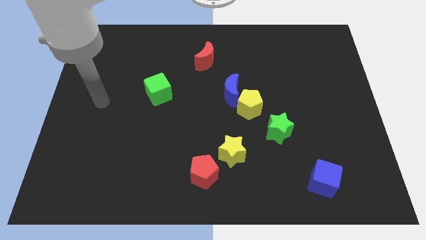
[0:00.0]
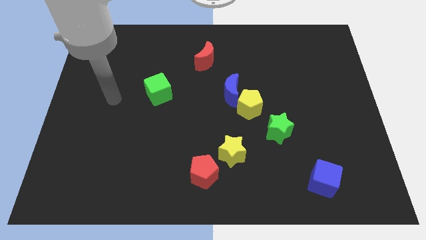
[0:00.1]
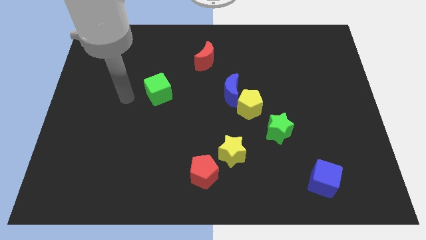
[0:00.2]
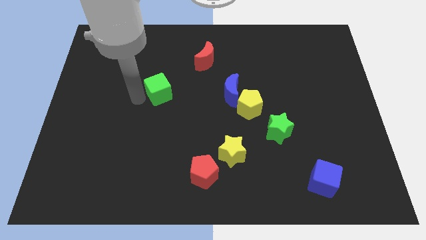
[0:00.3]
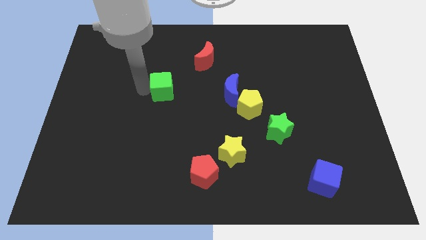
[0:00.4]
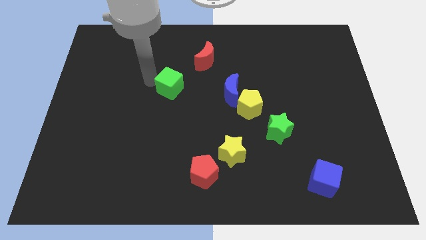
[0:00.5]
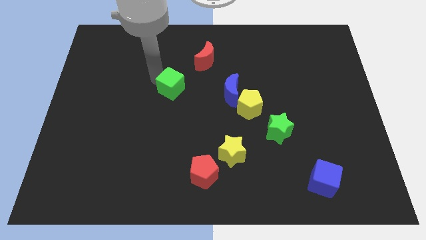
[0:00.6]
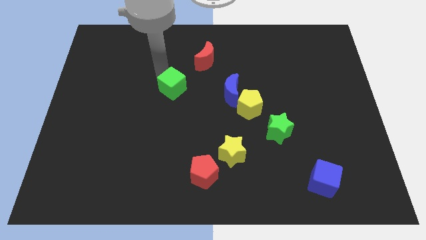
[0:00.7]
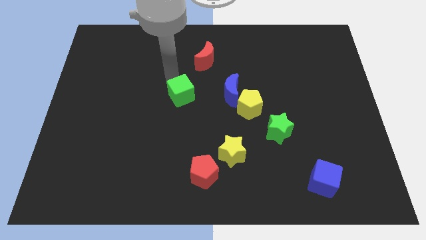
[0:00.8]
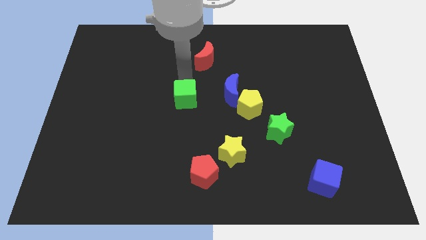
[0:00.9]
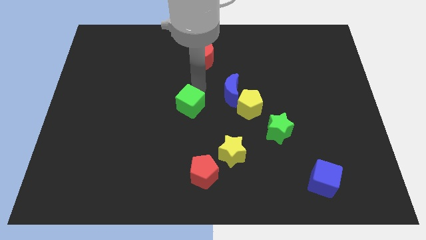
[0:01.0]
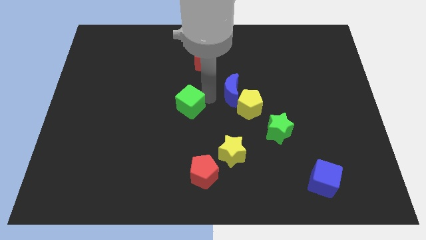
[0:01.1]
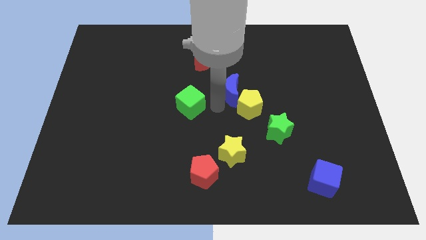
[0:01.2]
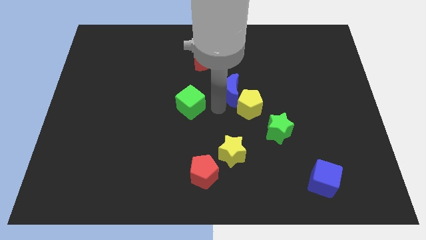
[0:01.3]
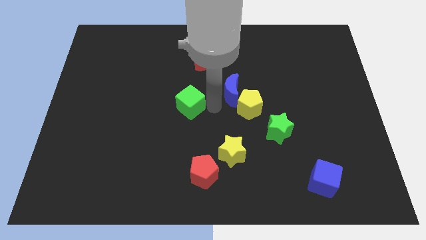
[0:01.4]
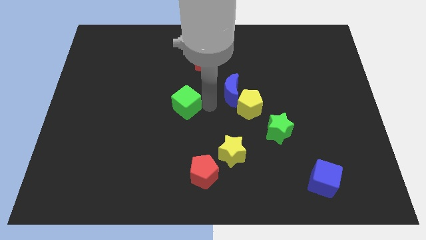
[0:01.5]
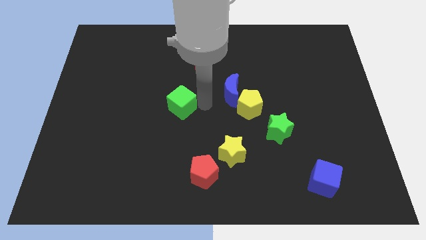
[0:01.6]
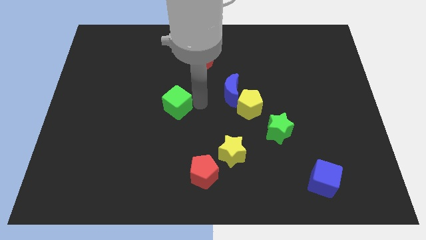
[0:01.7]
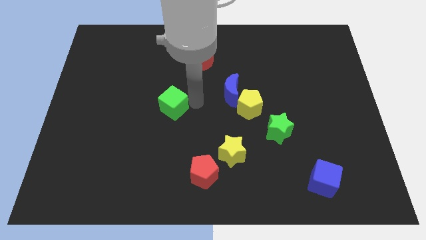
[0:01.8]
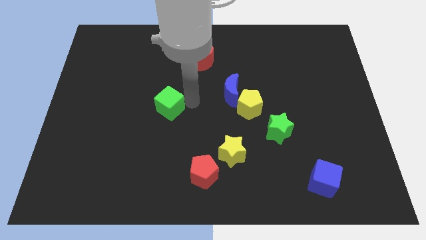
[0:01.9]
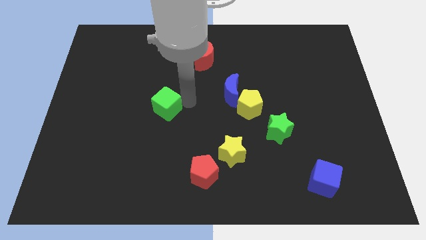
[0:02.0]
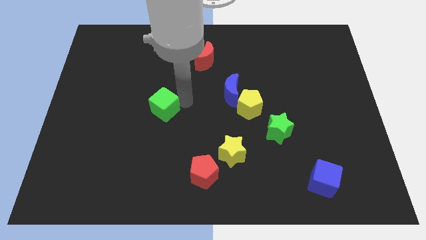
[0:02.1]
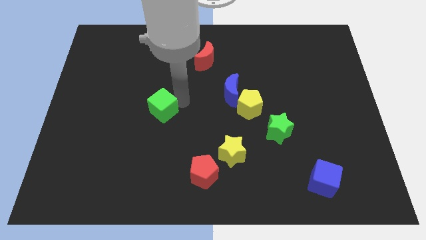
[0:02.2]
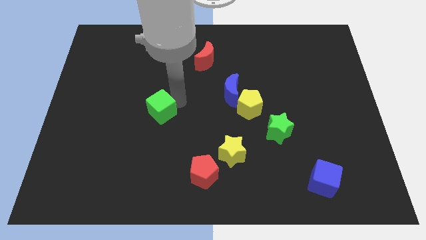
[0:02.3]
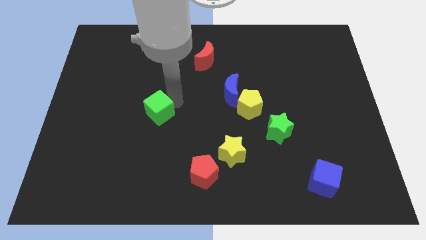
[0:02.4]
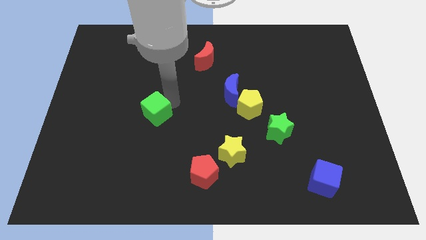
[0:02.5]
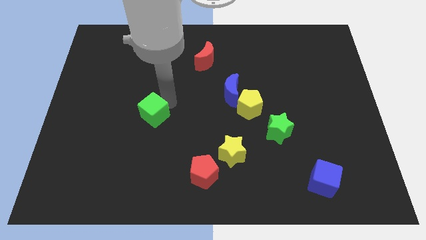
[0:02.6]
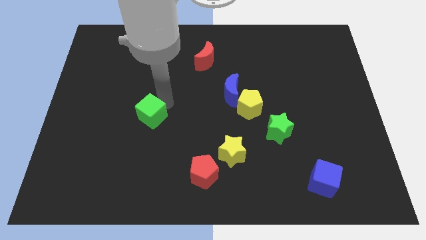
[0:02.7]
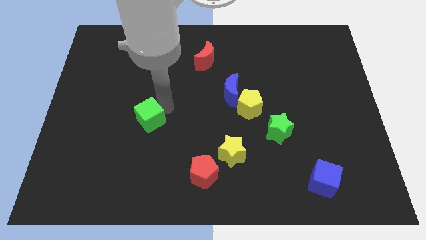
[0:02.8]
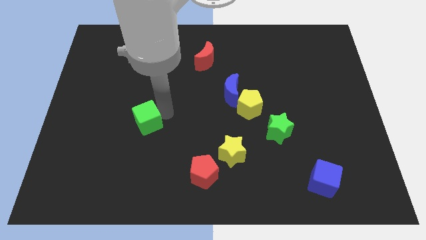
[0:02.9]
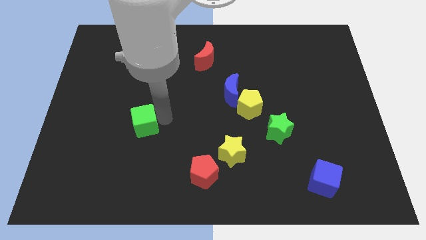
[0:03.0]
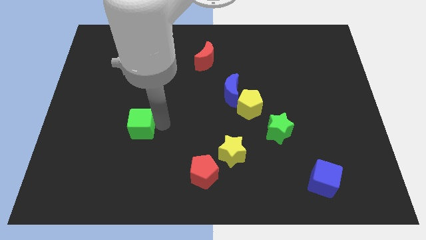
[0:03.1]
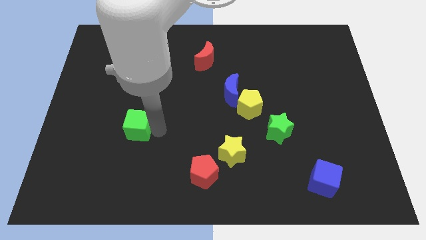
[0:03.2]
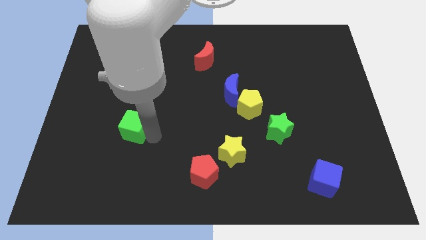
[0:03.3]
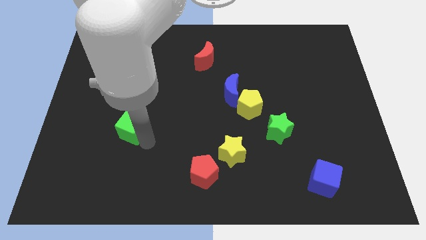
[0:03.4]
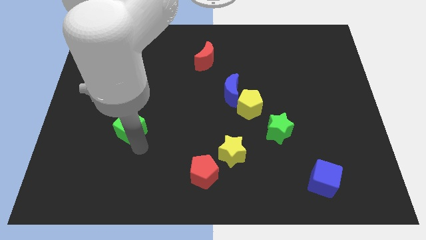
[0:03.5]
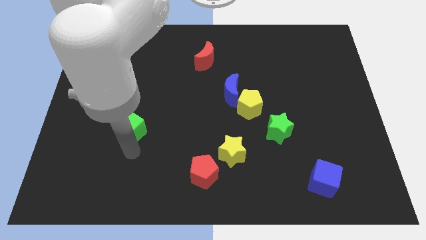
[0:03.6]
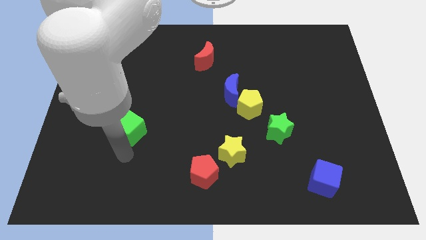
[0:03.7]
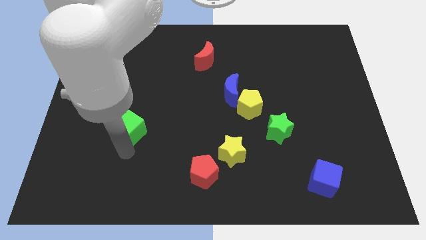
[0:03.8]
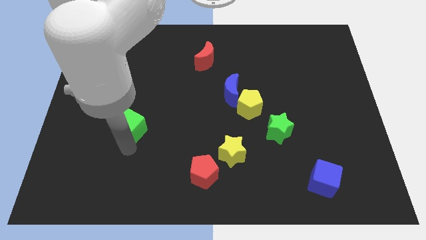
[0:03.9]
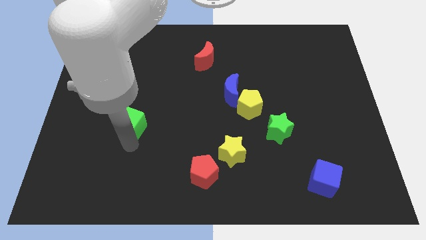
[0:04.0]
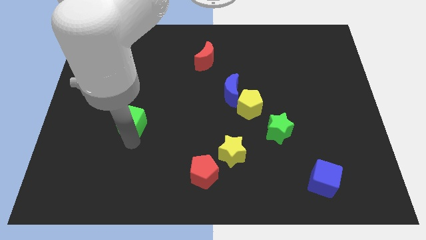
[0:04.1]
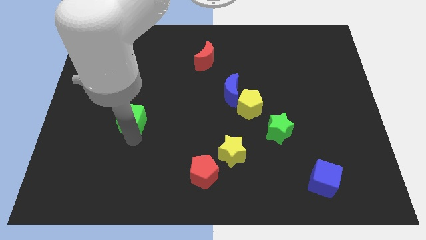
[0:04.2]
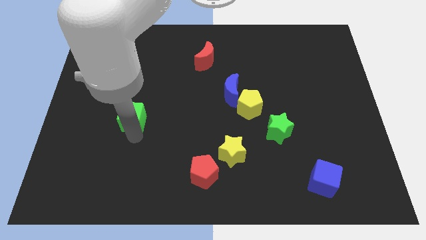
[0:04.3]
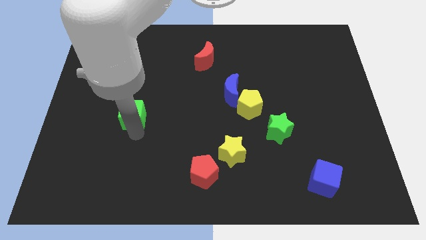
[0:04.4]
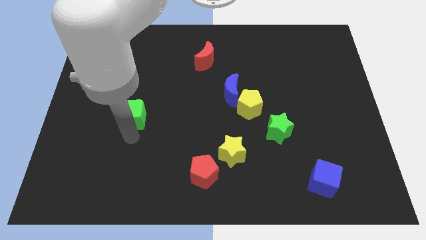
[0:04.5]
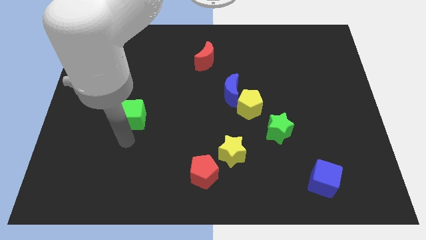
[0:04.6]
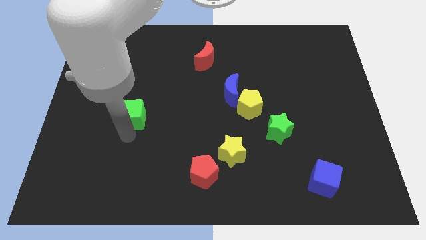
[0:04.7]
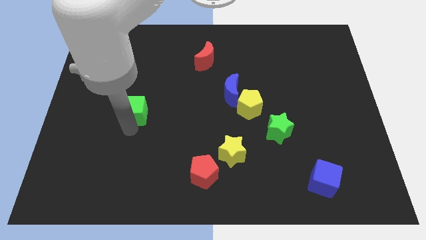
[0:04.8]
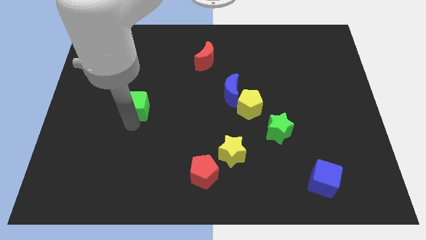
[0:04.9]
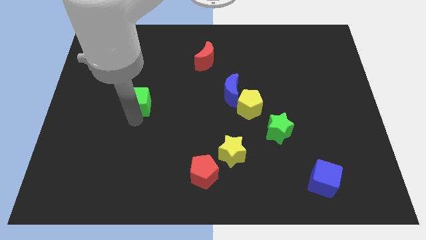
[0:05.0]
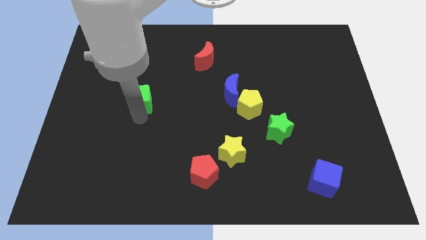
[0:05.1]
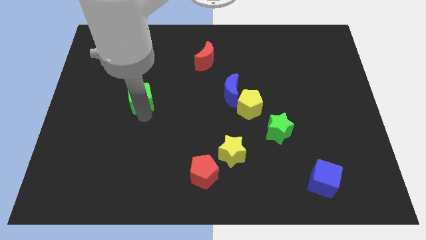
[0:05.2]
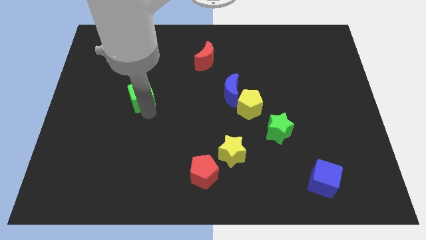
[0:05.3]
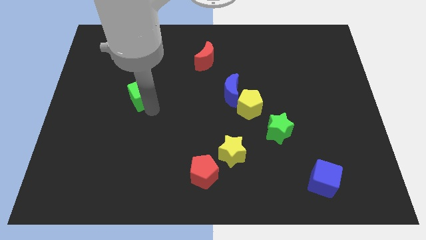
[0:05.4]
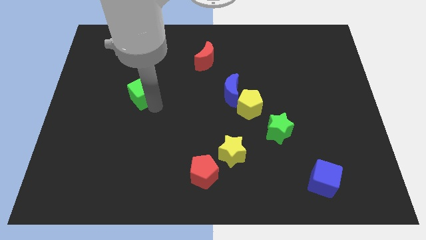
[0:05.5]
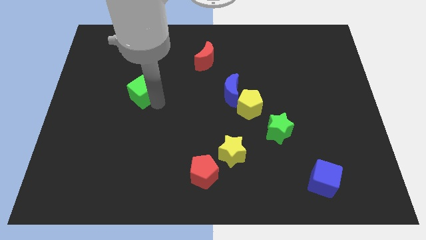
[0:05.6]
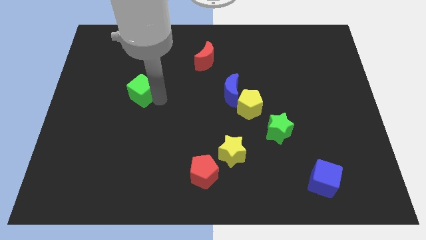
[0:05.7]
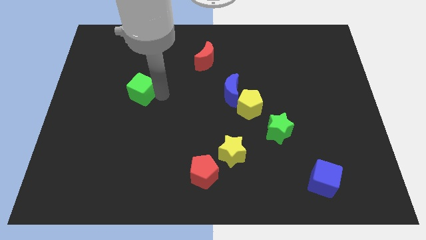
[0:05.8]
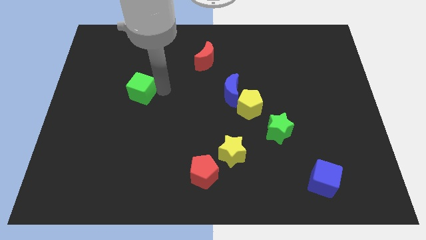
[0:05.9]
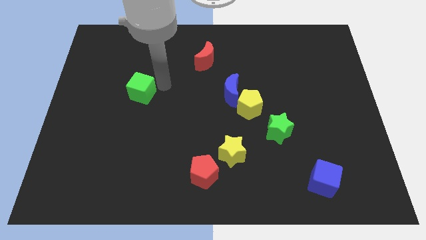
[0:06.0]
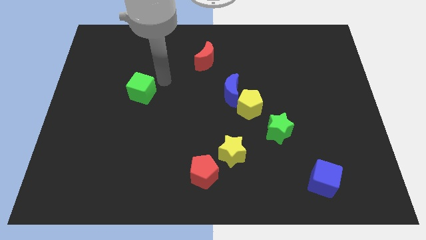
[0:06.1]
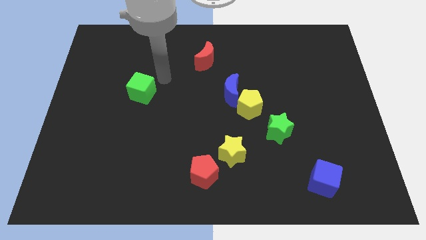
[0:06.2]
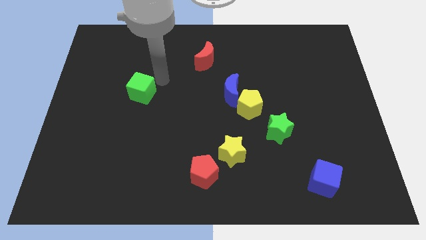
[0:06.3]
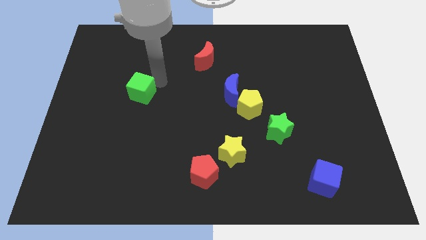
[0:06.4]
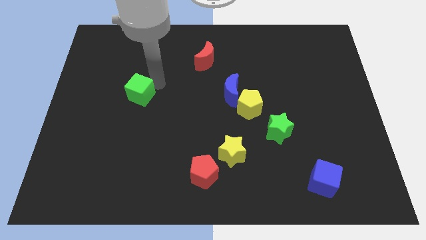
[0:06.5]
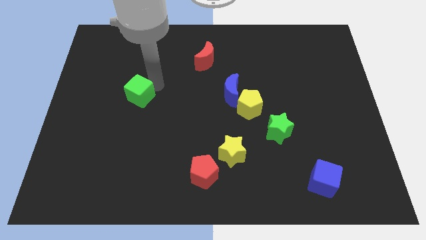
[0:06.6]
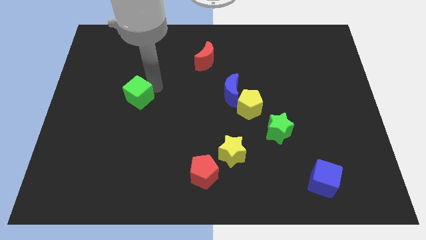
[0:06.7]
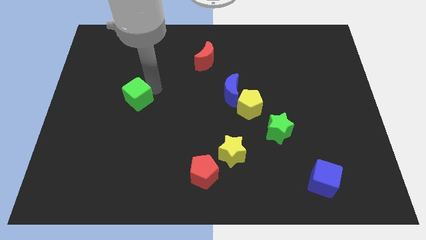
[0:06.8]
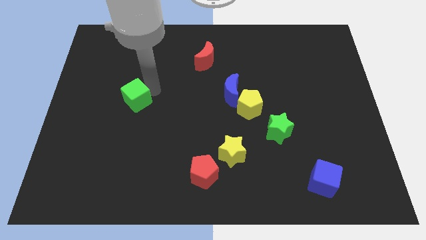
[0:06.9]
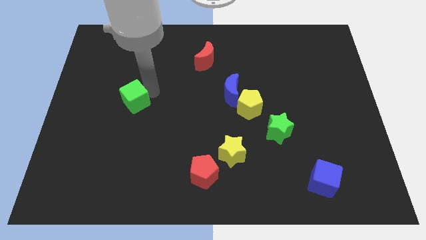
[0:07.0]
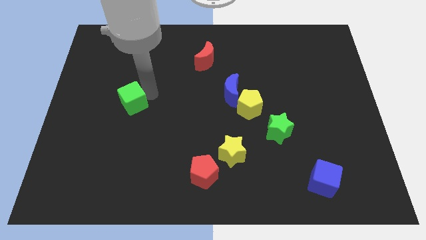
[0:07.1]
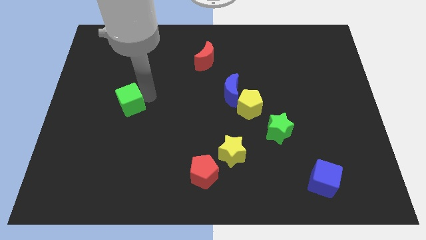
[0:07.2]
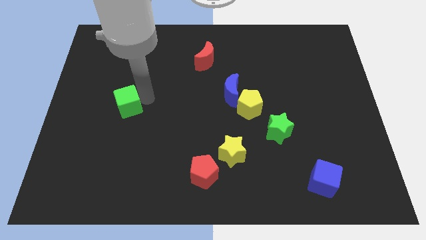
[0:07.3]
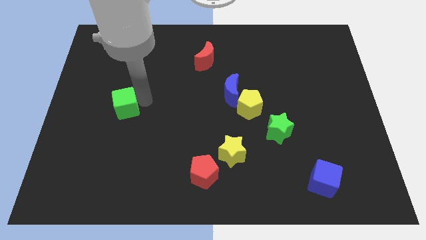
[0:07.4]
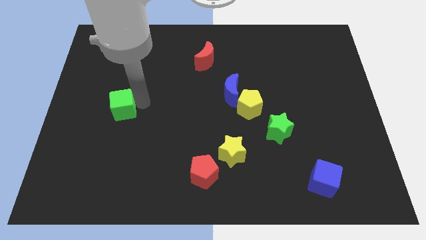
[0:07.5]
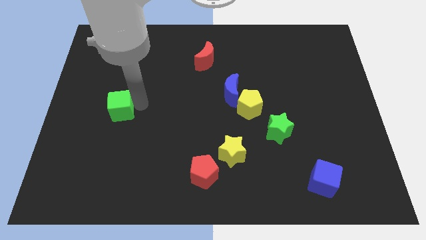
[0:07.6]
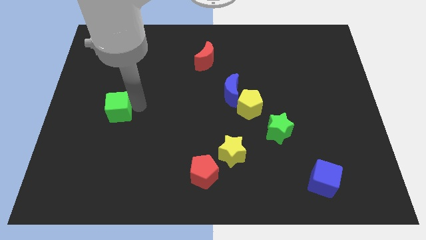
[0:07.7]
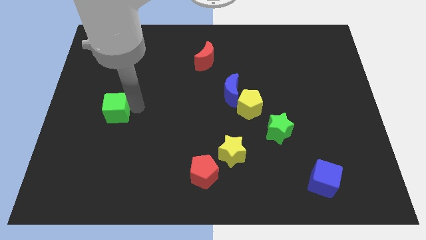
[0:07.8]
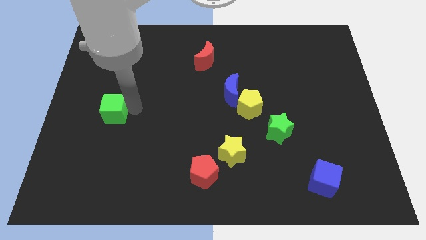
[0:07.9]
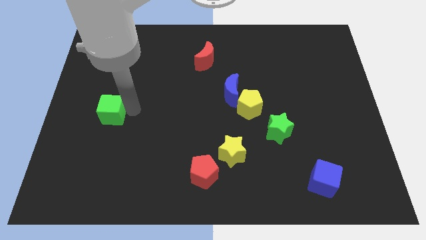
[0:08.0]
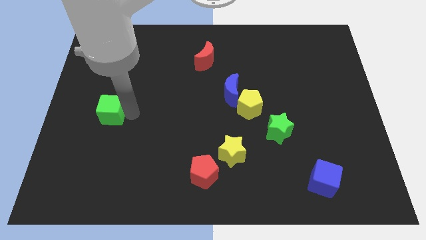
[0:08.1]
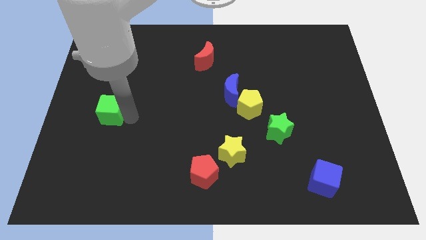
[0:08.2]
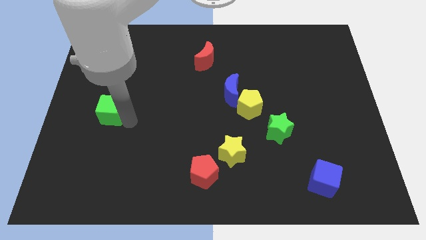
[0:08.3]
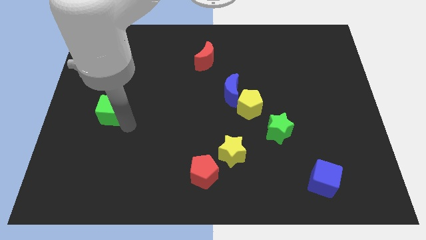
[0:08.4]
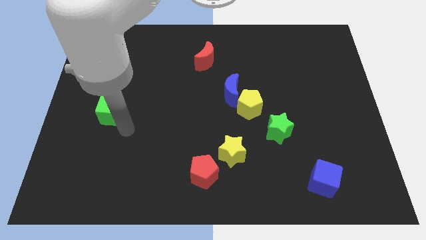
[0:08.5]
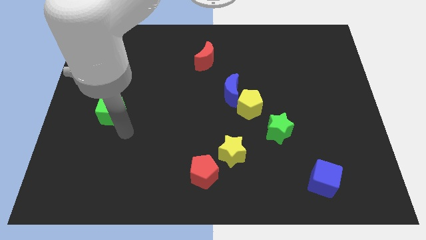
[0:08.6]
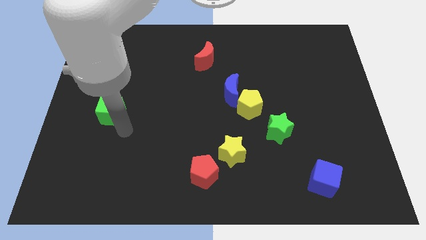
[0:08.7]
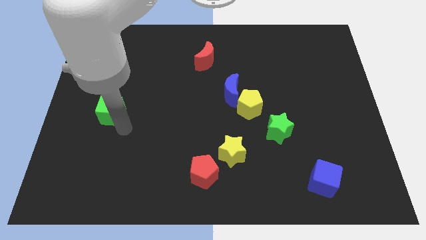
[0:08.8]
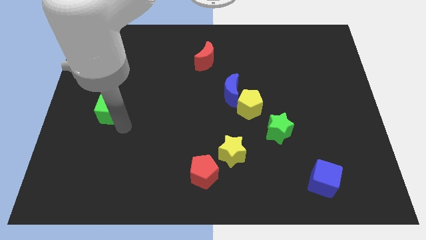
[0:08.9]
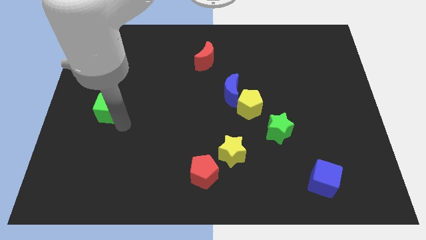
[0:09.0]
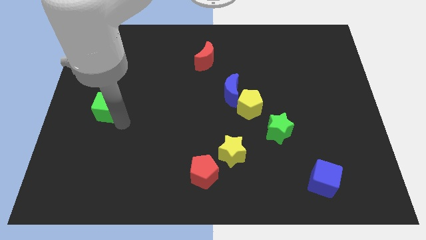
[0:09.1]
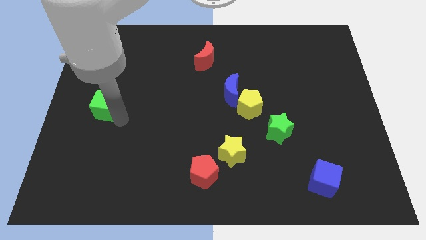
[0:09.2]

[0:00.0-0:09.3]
move the green cube to the left side
